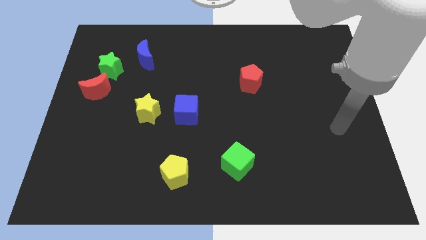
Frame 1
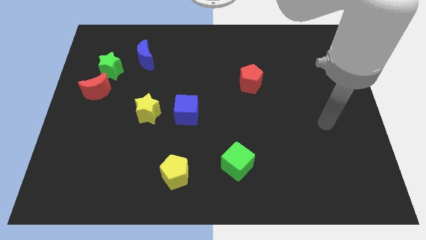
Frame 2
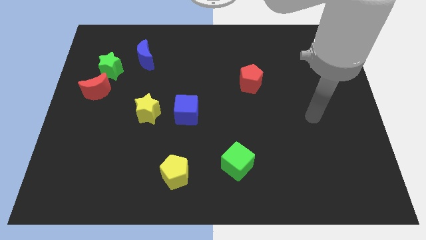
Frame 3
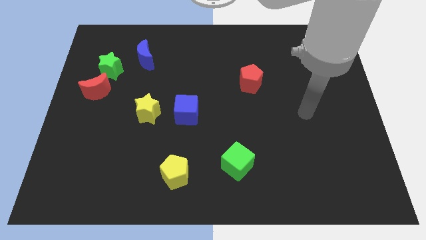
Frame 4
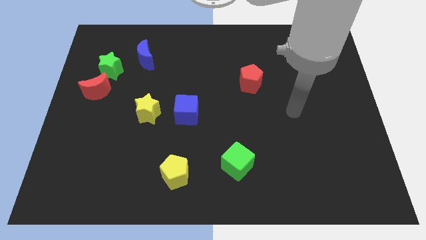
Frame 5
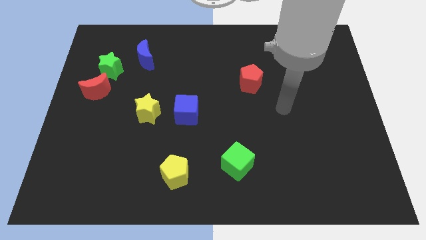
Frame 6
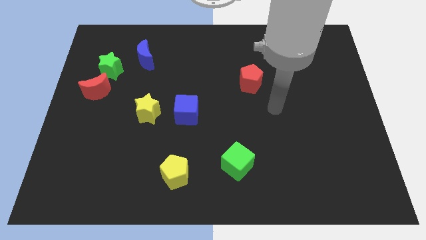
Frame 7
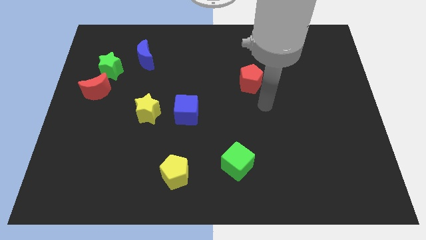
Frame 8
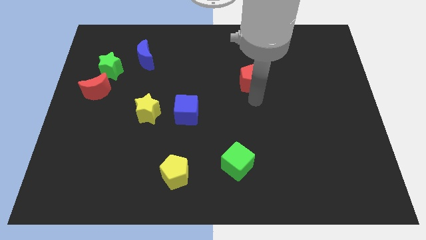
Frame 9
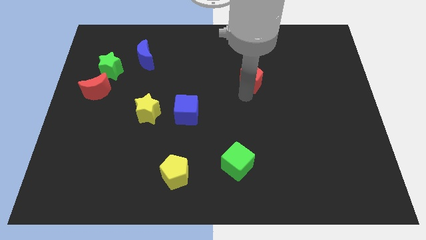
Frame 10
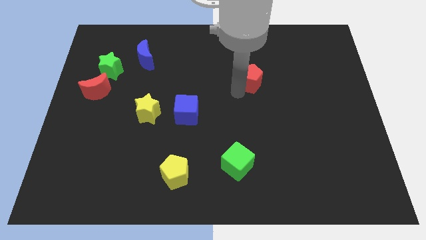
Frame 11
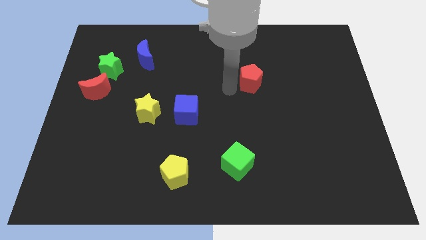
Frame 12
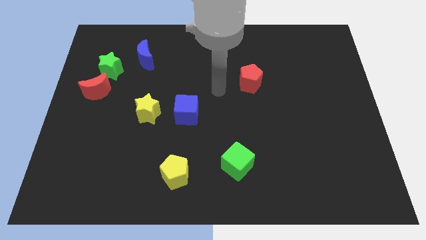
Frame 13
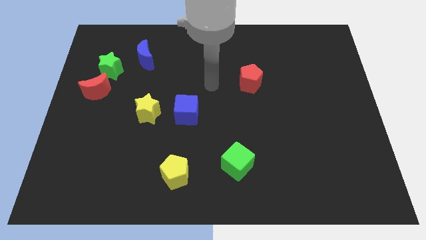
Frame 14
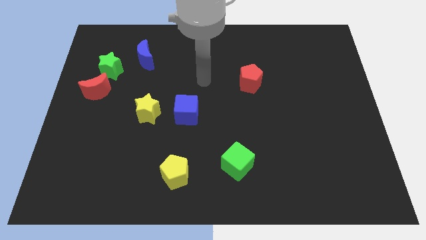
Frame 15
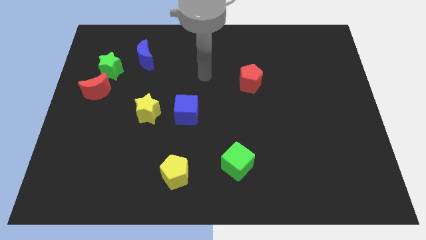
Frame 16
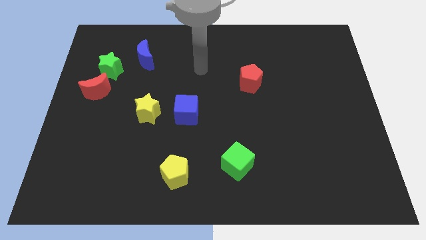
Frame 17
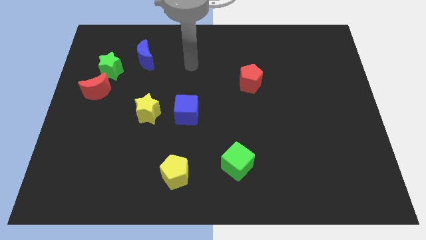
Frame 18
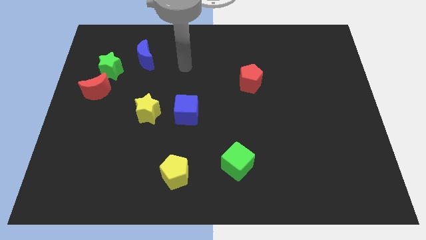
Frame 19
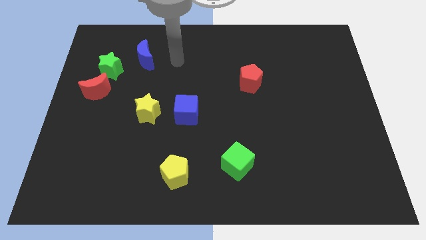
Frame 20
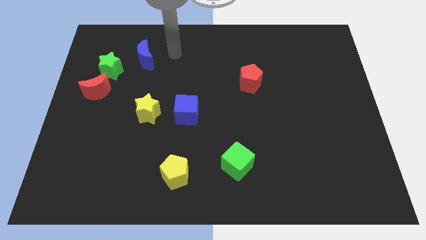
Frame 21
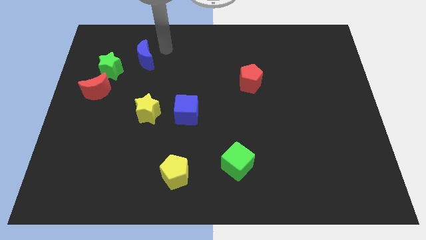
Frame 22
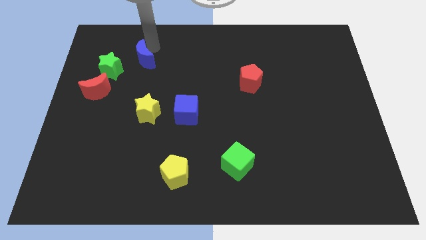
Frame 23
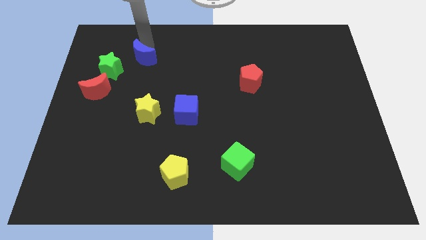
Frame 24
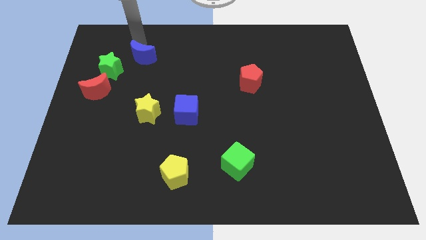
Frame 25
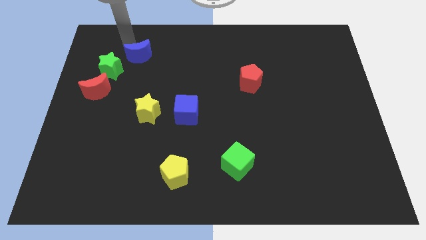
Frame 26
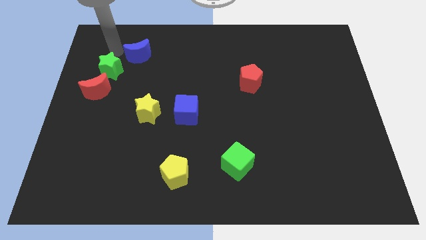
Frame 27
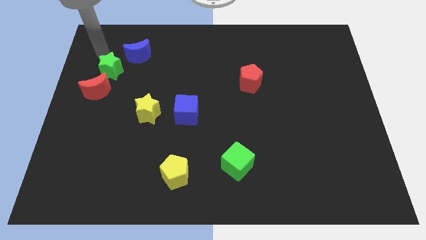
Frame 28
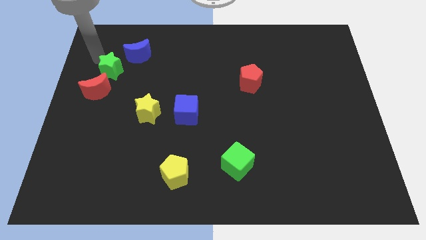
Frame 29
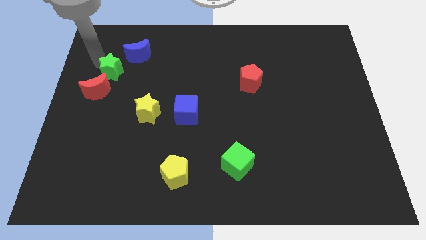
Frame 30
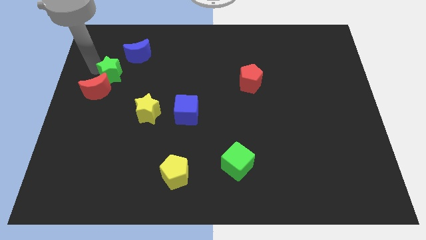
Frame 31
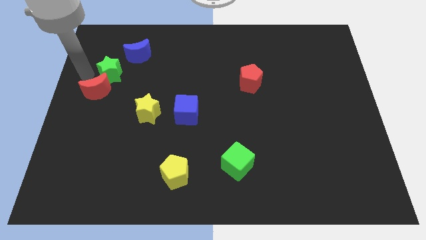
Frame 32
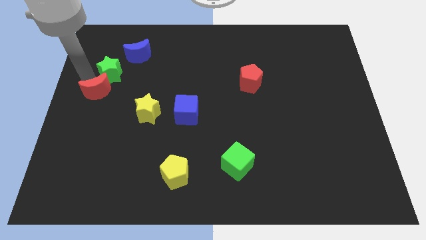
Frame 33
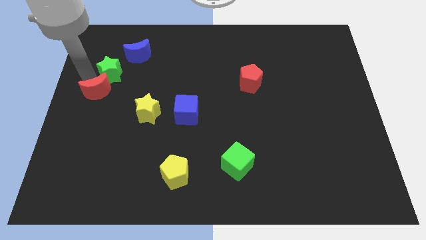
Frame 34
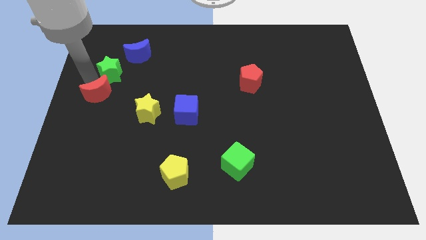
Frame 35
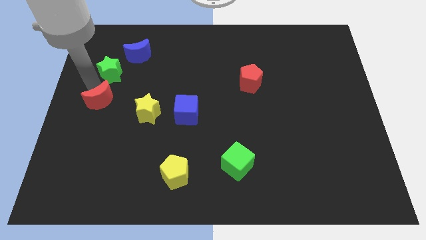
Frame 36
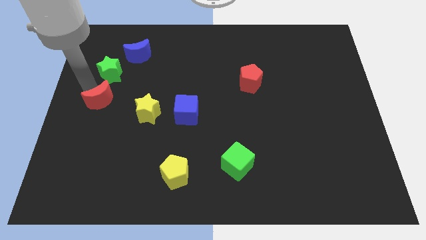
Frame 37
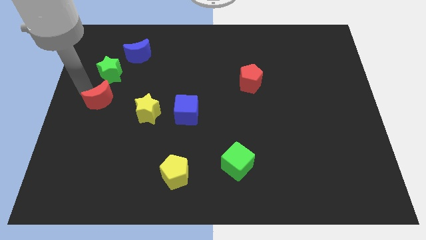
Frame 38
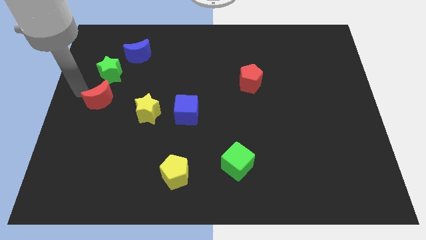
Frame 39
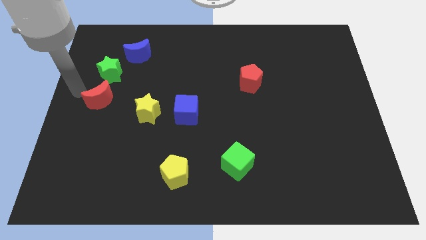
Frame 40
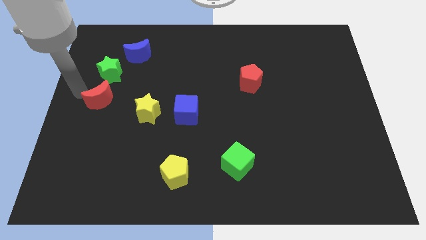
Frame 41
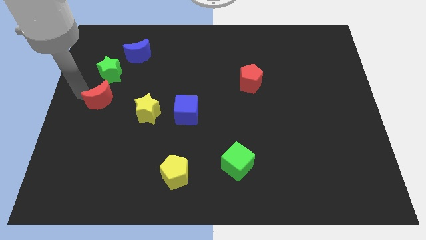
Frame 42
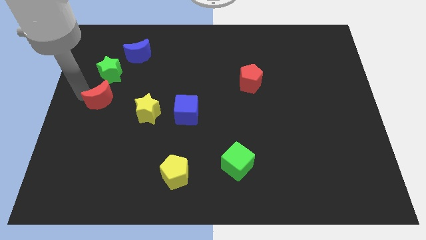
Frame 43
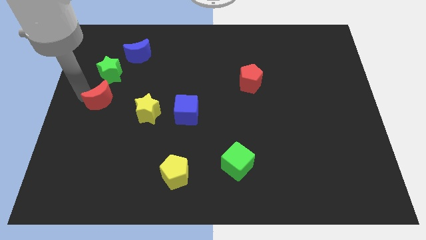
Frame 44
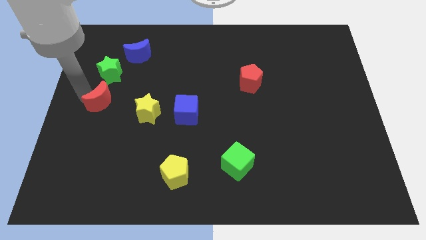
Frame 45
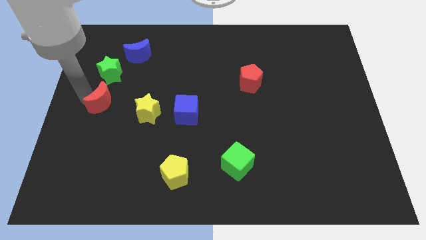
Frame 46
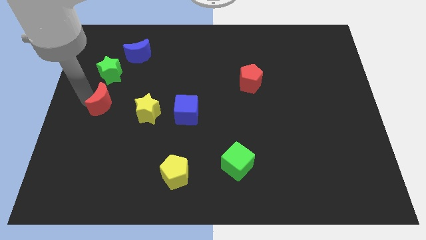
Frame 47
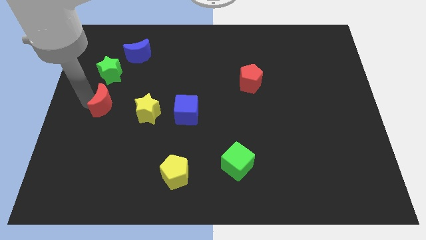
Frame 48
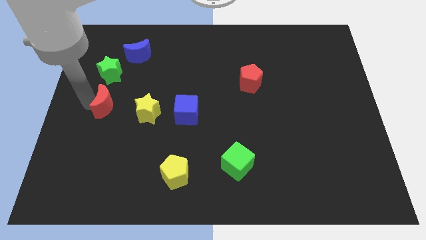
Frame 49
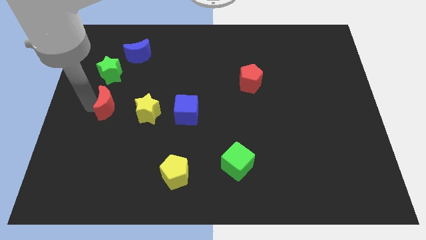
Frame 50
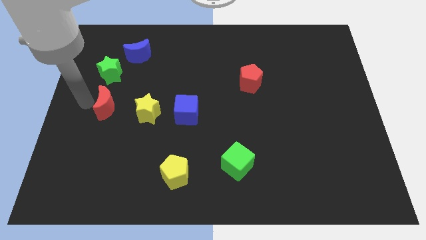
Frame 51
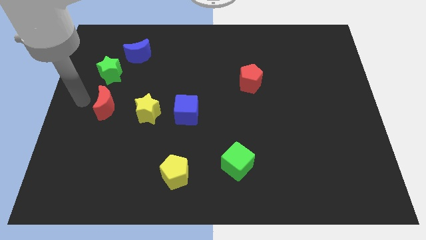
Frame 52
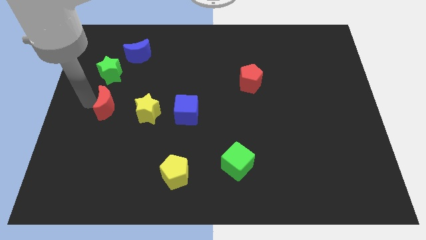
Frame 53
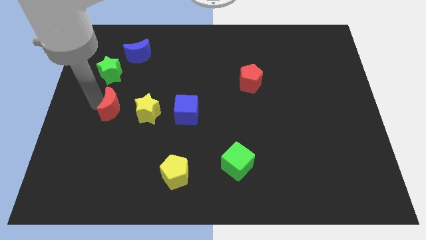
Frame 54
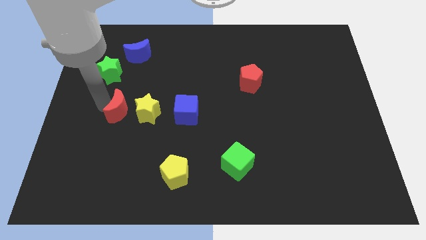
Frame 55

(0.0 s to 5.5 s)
move the red moon just left of the blue cube
